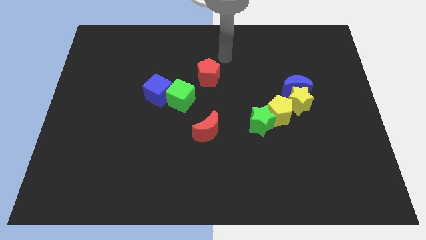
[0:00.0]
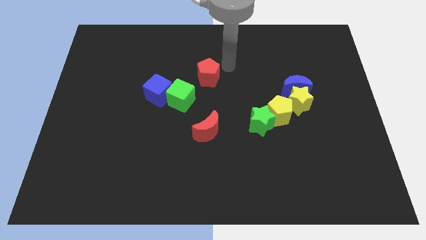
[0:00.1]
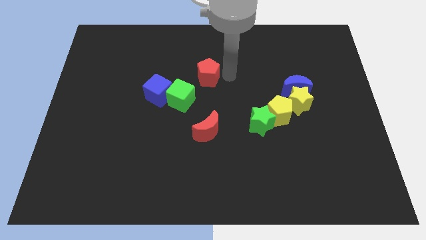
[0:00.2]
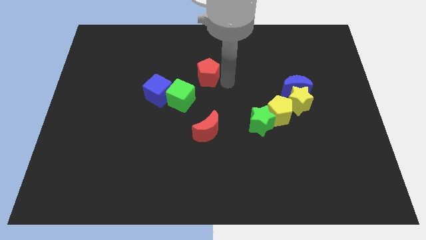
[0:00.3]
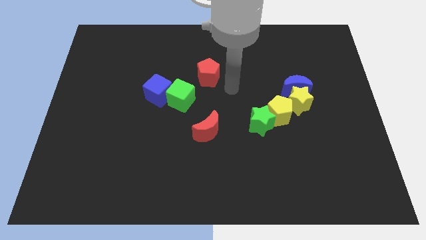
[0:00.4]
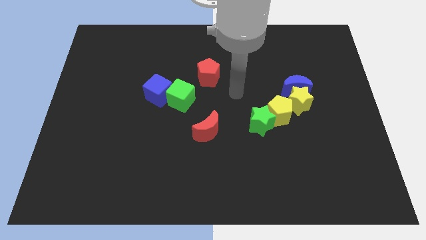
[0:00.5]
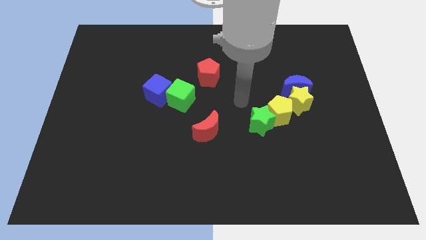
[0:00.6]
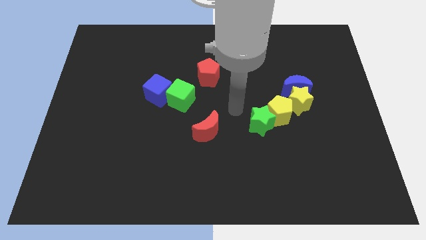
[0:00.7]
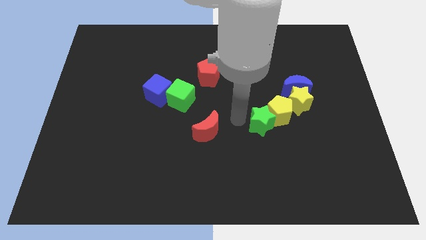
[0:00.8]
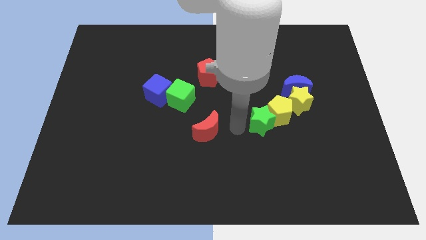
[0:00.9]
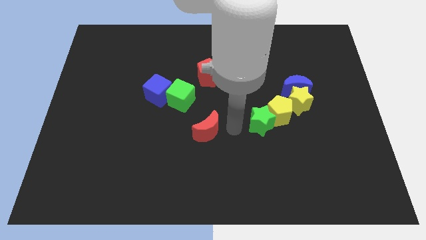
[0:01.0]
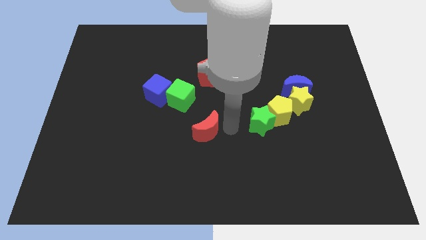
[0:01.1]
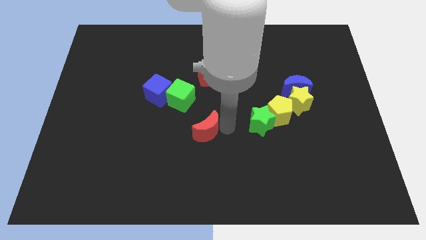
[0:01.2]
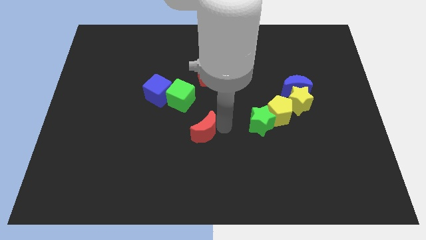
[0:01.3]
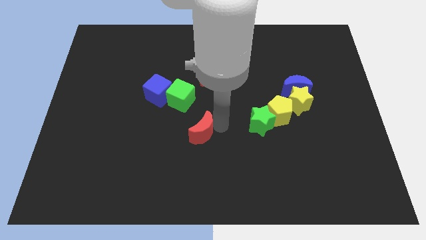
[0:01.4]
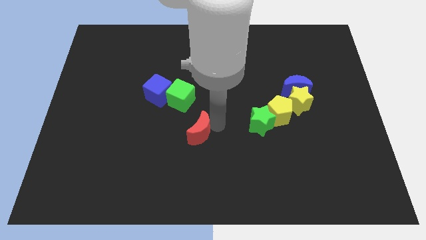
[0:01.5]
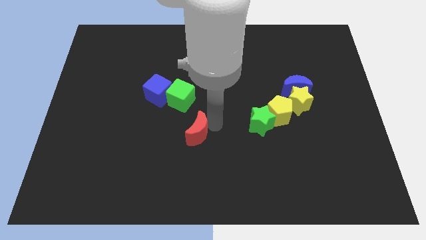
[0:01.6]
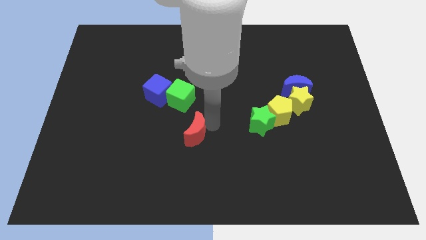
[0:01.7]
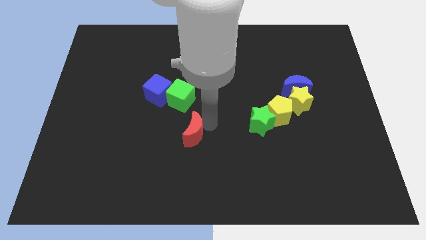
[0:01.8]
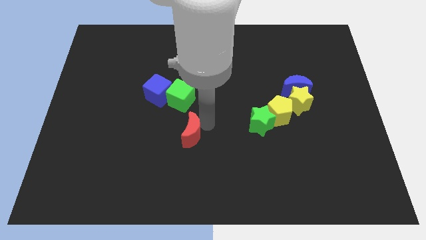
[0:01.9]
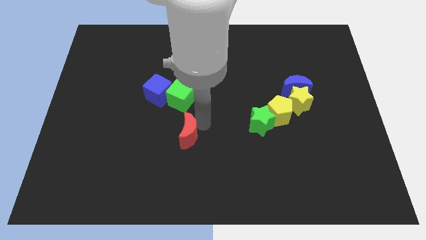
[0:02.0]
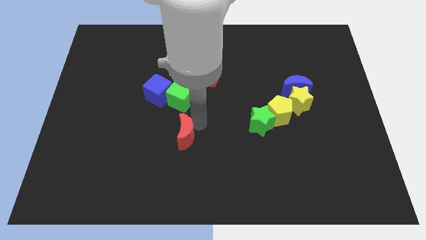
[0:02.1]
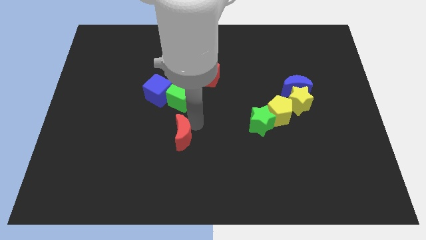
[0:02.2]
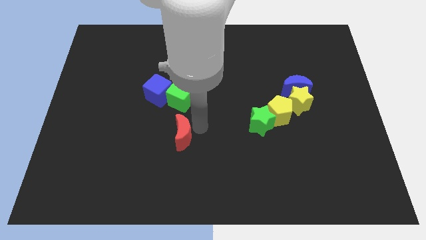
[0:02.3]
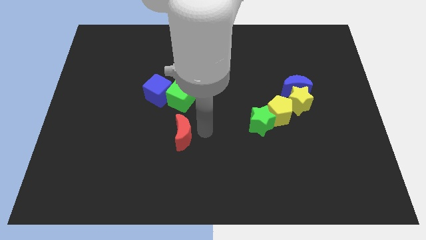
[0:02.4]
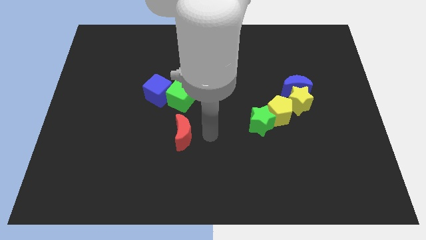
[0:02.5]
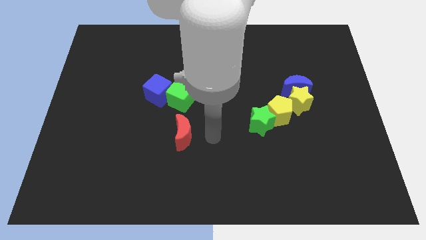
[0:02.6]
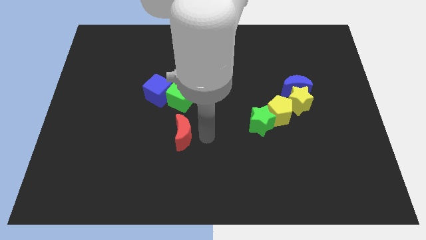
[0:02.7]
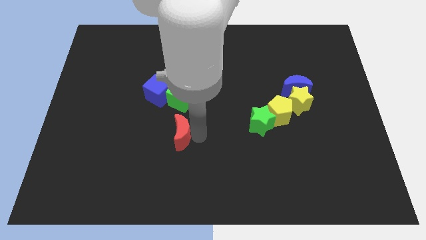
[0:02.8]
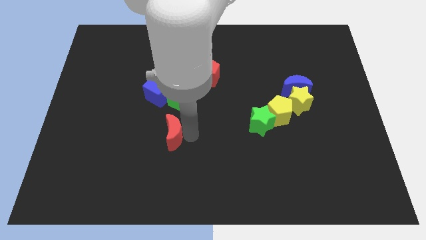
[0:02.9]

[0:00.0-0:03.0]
push the red moon a bit to the left

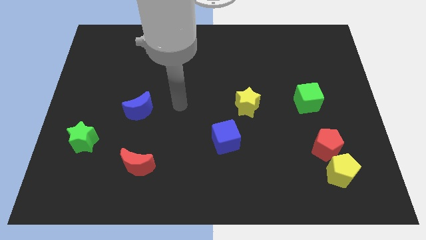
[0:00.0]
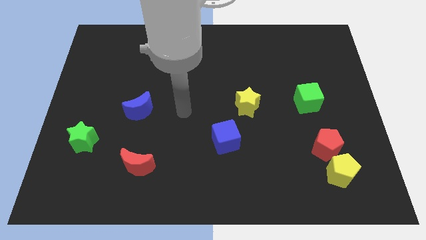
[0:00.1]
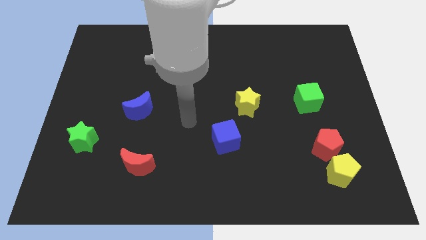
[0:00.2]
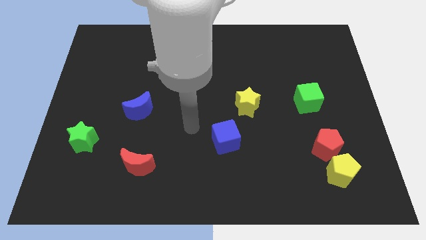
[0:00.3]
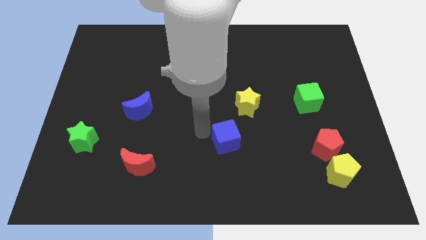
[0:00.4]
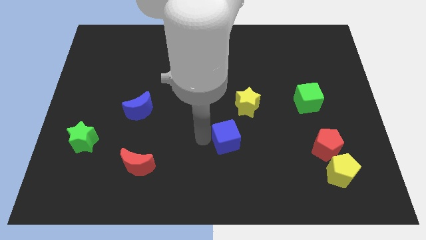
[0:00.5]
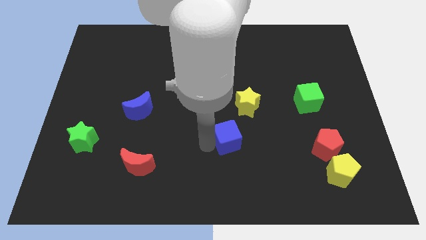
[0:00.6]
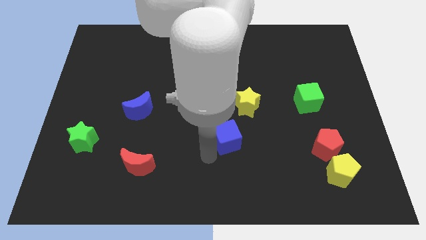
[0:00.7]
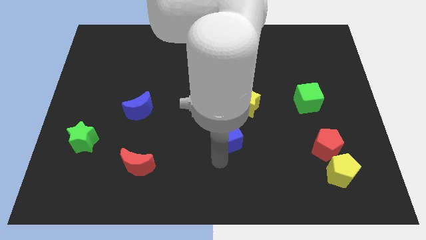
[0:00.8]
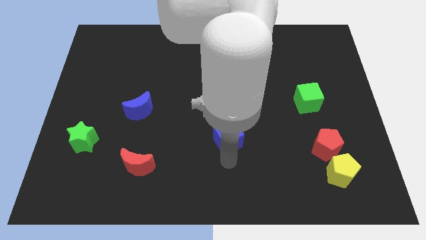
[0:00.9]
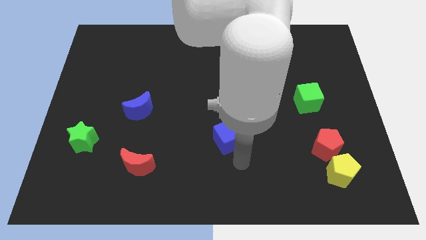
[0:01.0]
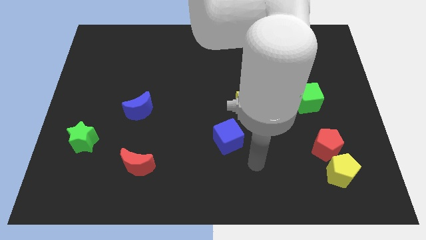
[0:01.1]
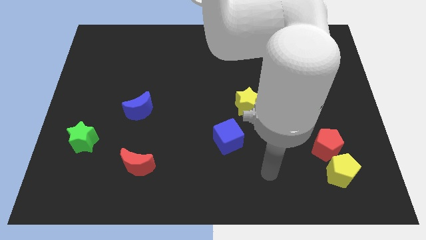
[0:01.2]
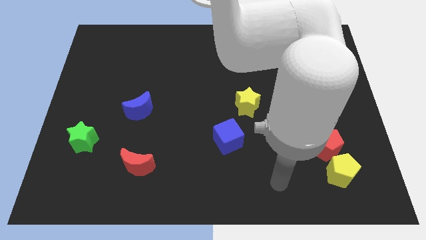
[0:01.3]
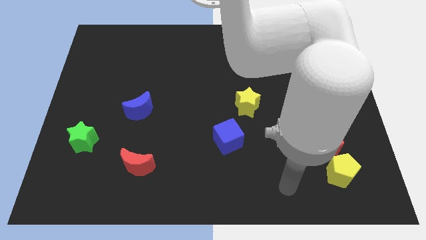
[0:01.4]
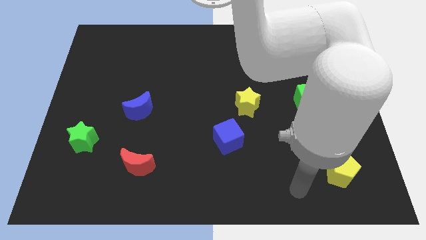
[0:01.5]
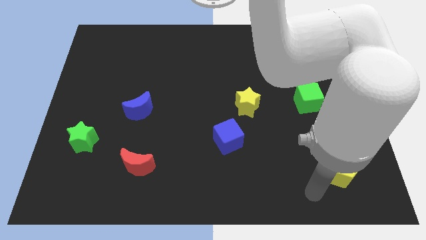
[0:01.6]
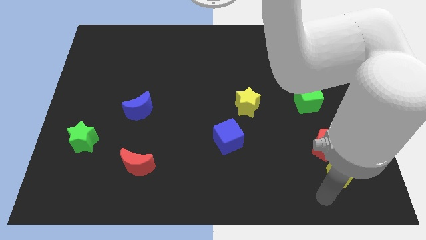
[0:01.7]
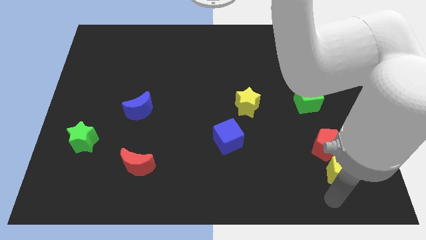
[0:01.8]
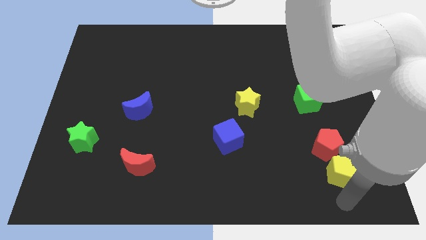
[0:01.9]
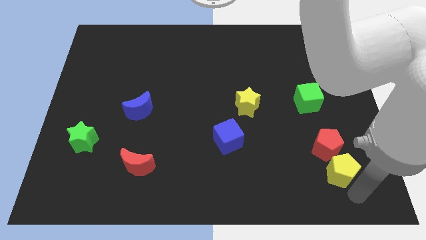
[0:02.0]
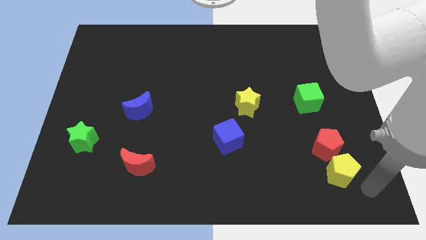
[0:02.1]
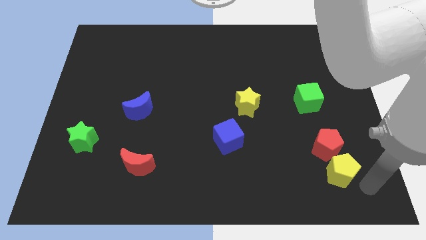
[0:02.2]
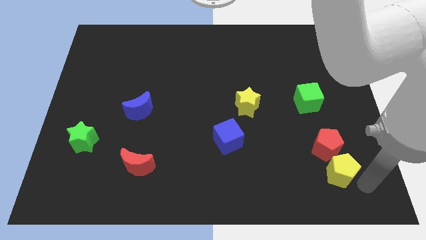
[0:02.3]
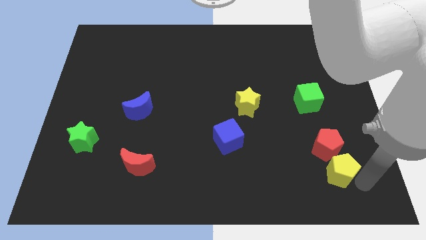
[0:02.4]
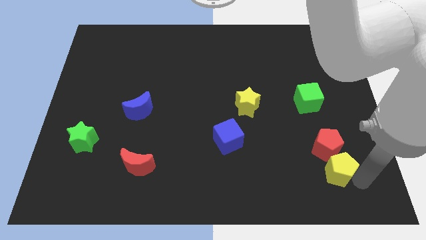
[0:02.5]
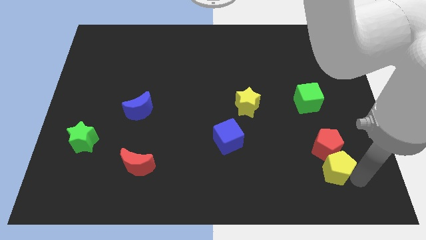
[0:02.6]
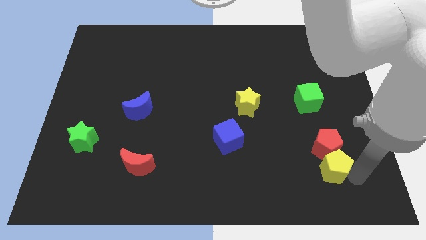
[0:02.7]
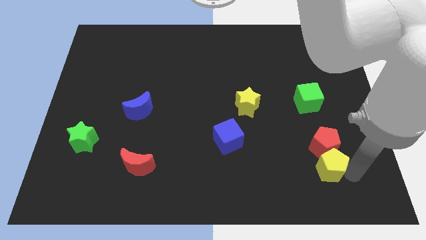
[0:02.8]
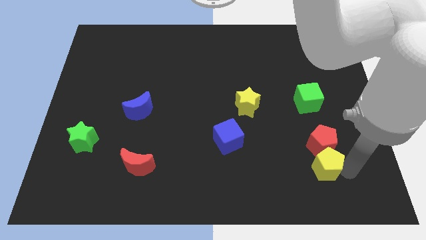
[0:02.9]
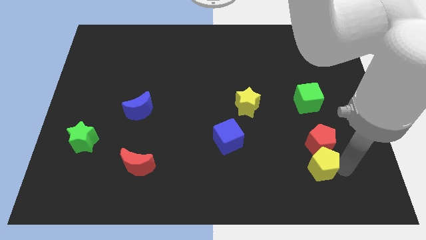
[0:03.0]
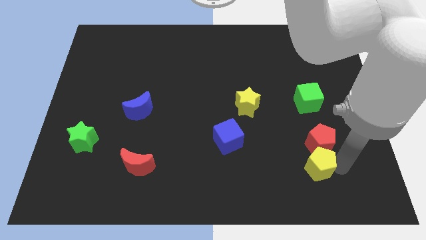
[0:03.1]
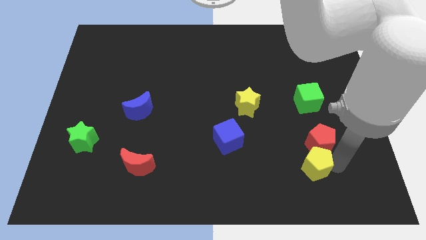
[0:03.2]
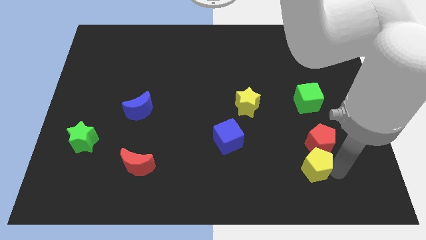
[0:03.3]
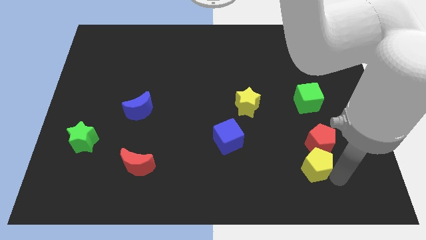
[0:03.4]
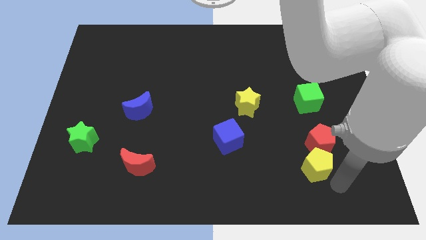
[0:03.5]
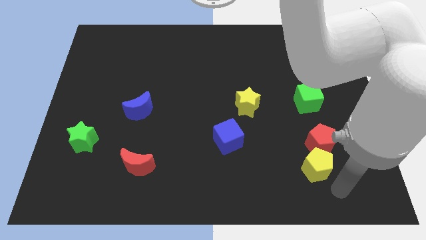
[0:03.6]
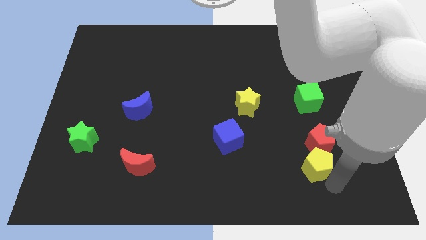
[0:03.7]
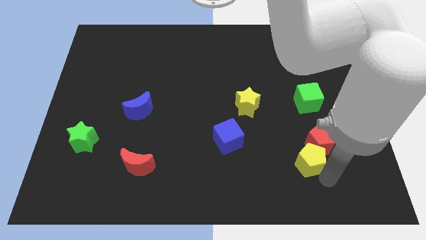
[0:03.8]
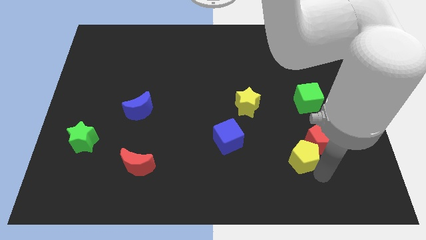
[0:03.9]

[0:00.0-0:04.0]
slightly slide the yellow pentagon diagonally up and to the left

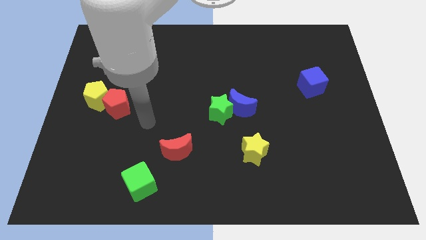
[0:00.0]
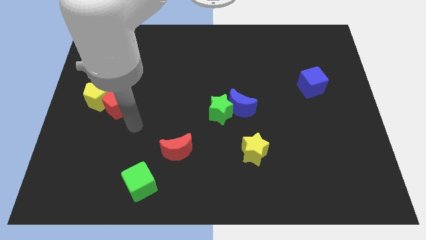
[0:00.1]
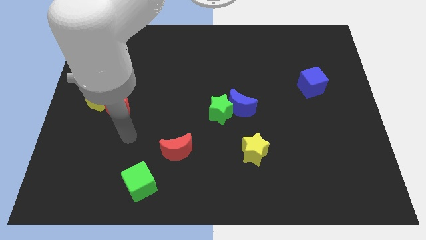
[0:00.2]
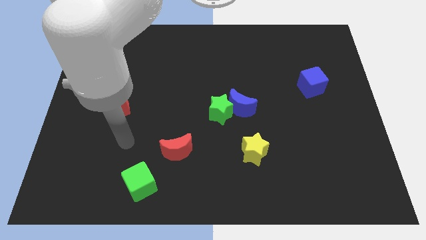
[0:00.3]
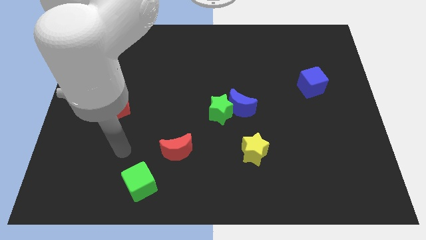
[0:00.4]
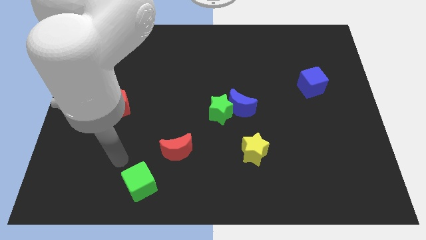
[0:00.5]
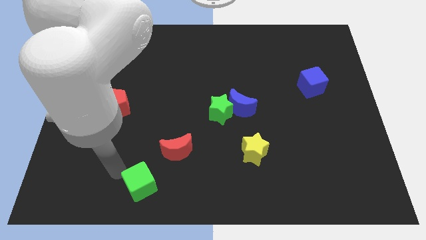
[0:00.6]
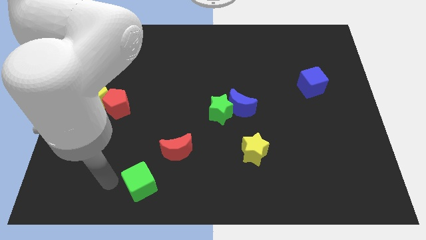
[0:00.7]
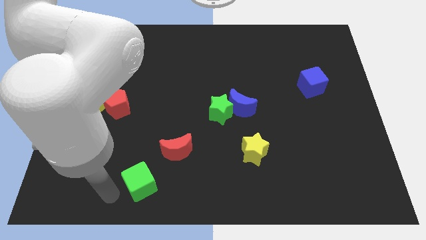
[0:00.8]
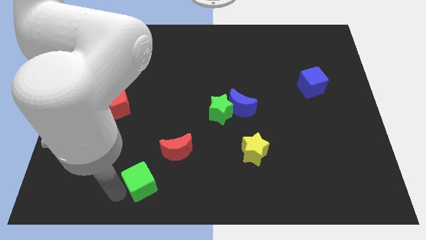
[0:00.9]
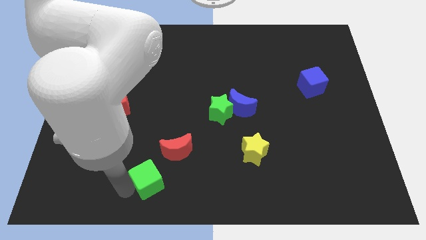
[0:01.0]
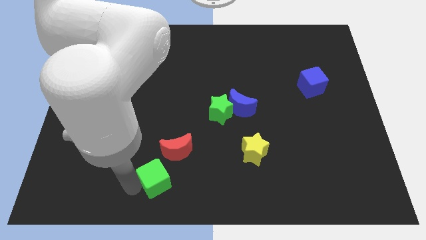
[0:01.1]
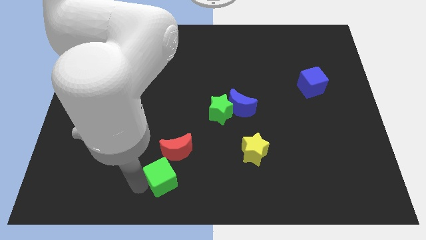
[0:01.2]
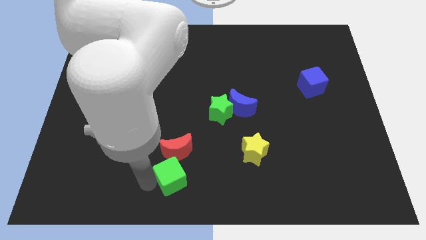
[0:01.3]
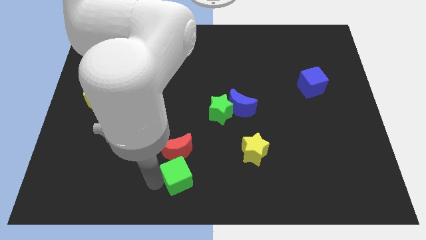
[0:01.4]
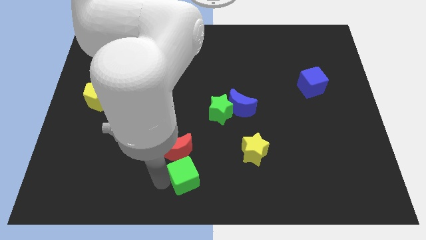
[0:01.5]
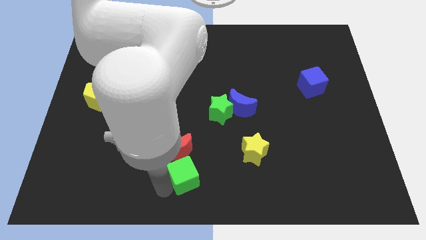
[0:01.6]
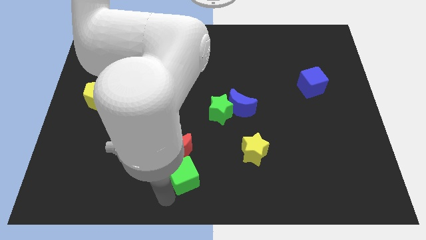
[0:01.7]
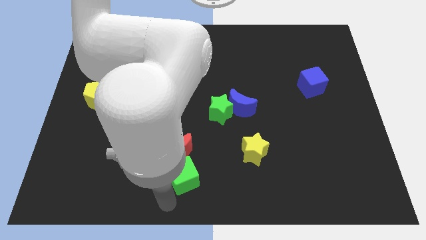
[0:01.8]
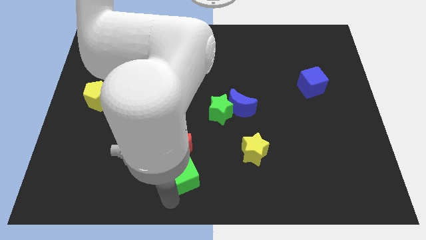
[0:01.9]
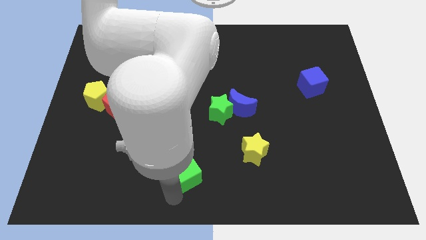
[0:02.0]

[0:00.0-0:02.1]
move the green cube a bit up and to the right diagonally
